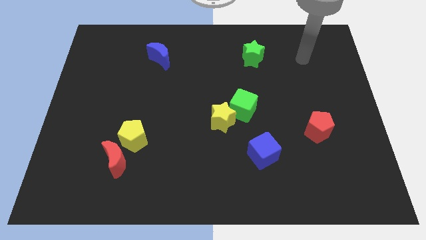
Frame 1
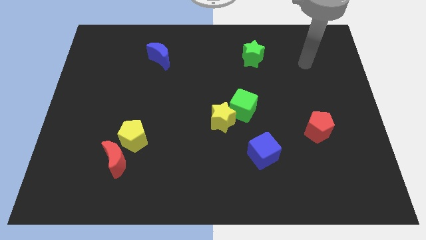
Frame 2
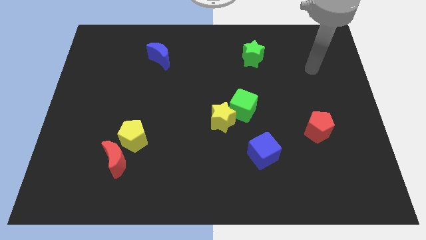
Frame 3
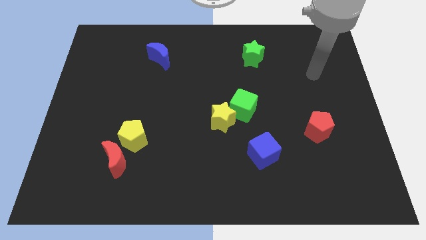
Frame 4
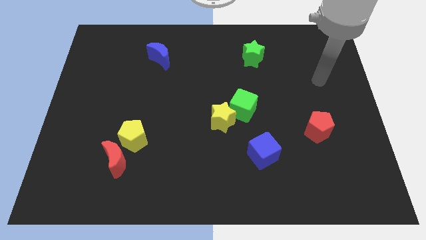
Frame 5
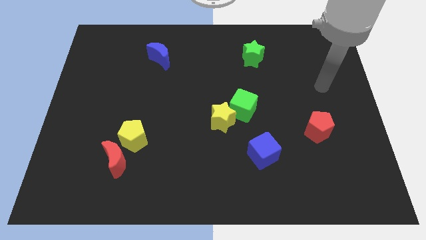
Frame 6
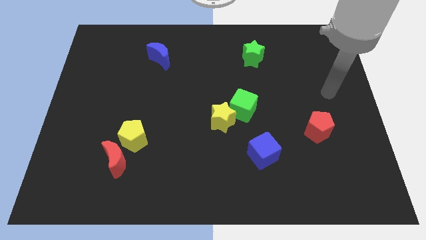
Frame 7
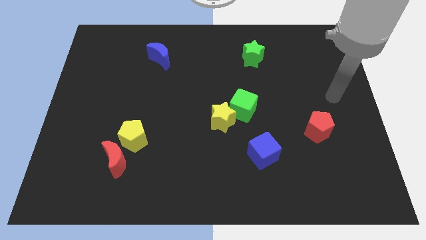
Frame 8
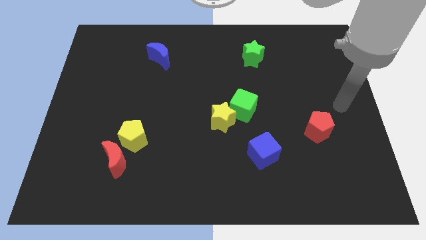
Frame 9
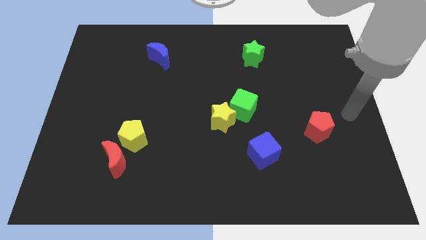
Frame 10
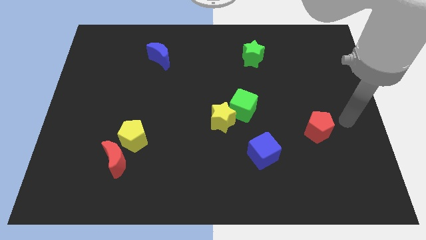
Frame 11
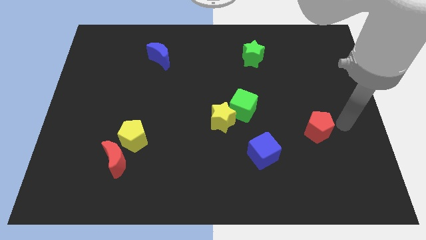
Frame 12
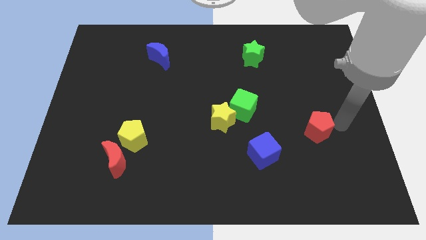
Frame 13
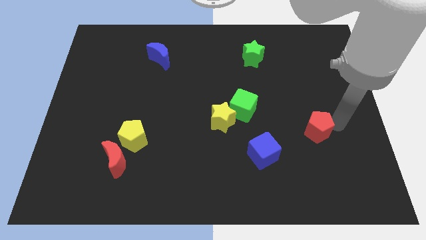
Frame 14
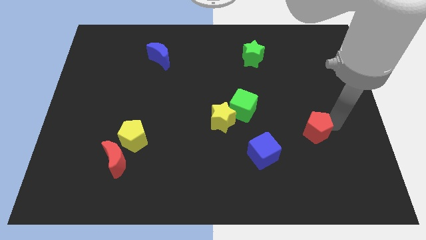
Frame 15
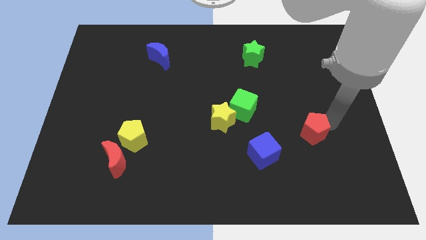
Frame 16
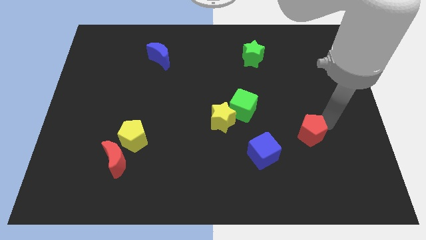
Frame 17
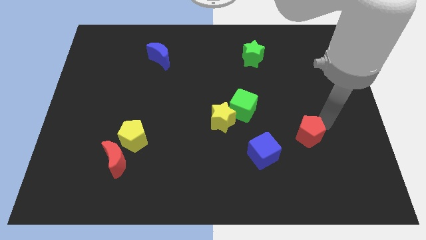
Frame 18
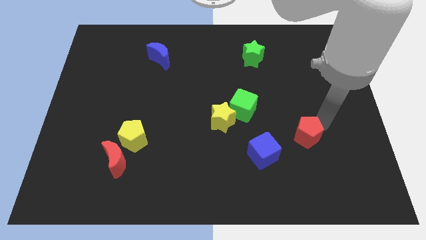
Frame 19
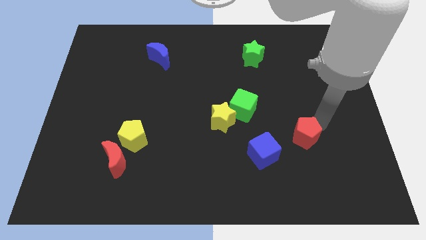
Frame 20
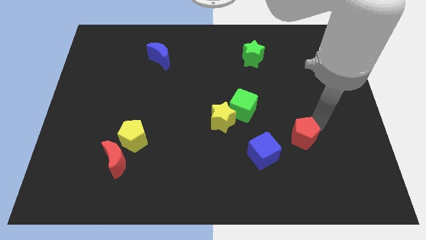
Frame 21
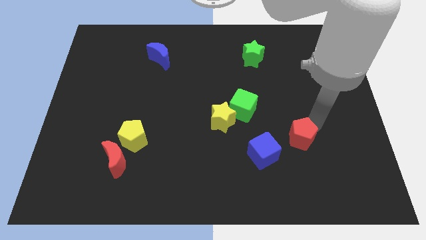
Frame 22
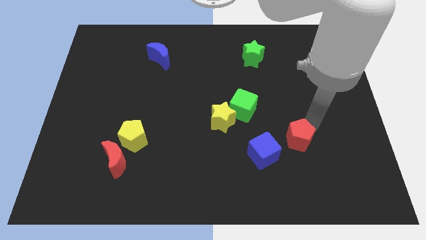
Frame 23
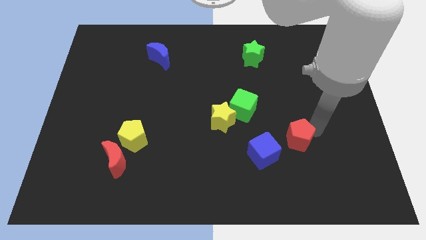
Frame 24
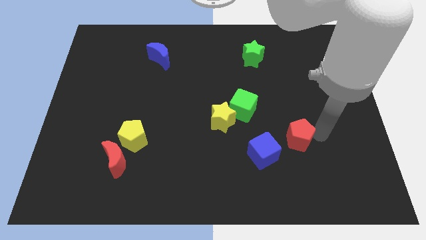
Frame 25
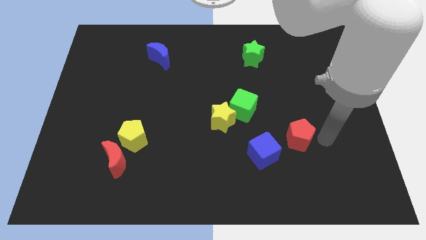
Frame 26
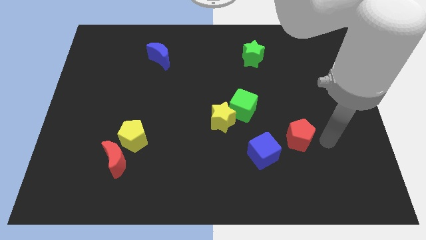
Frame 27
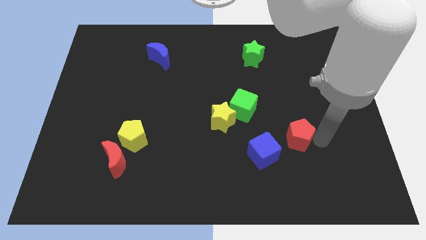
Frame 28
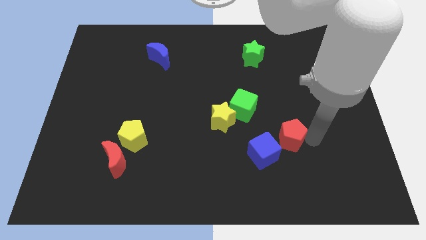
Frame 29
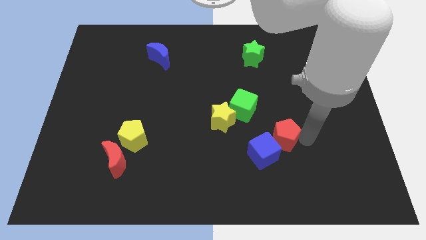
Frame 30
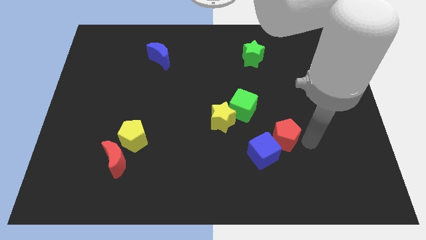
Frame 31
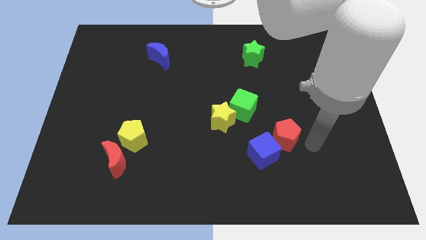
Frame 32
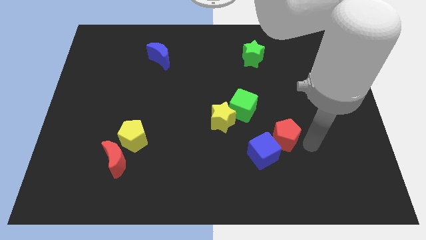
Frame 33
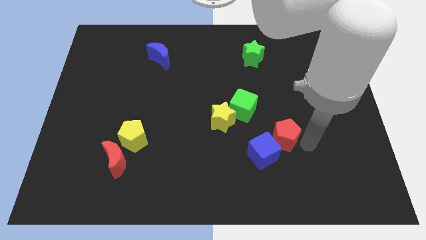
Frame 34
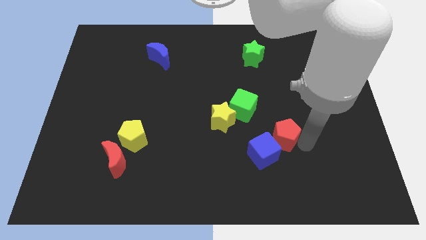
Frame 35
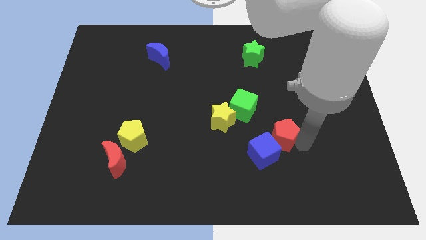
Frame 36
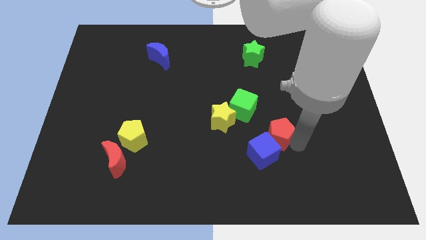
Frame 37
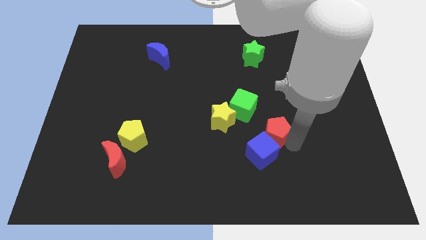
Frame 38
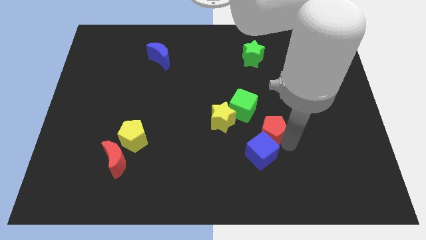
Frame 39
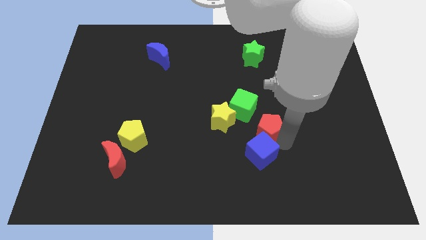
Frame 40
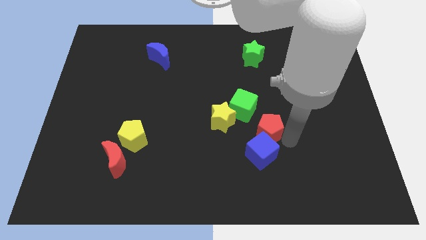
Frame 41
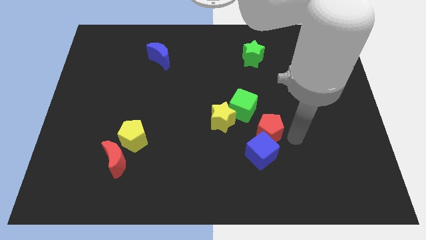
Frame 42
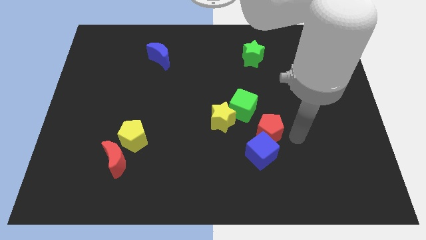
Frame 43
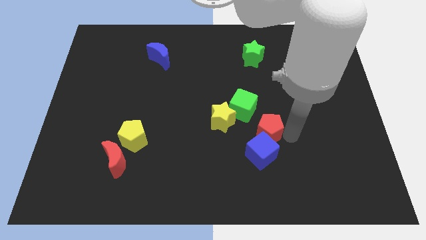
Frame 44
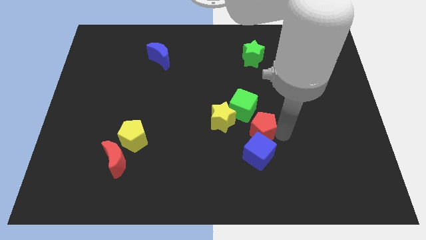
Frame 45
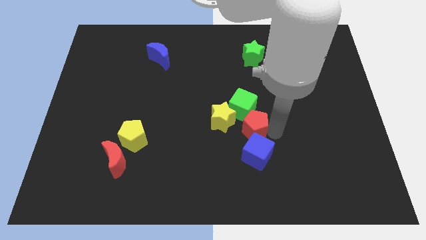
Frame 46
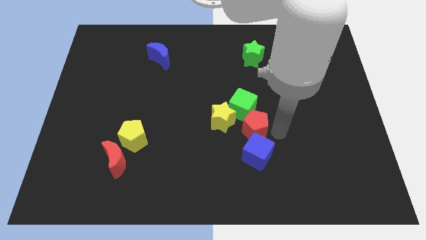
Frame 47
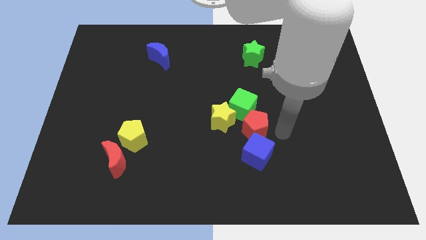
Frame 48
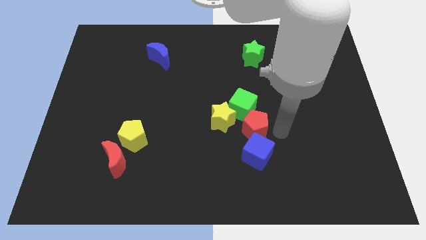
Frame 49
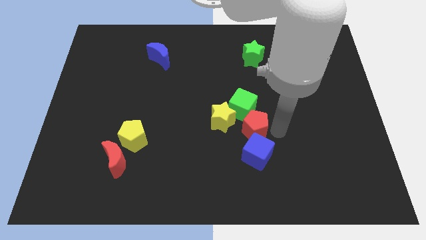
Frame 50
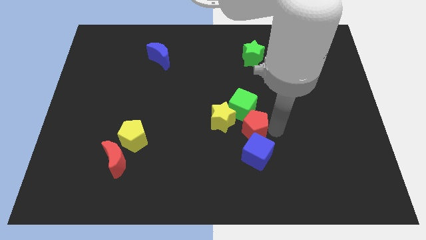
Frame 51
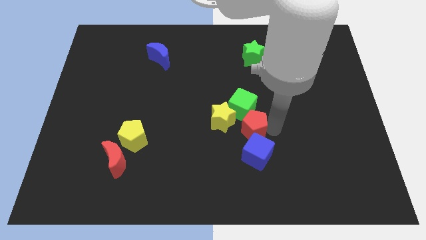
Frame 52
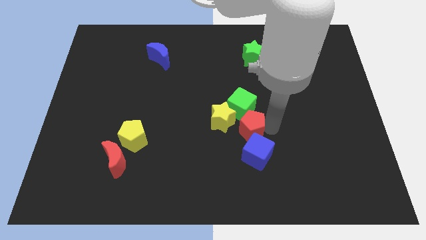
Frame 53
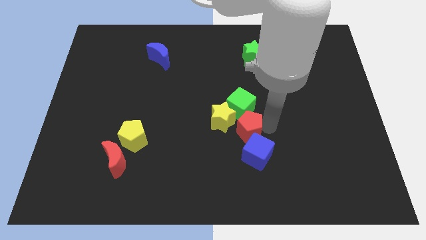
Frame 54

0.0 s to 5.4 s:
push the red pentagon towards the yellow star

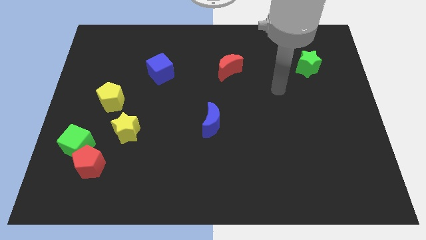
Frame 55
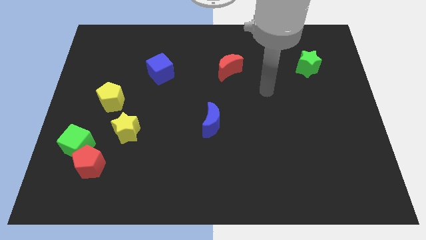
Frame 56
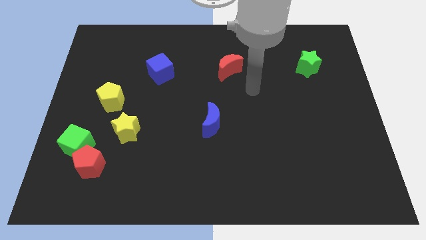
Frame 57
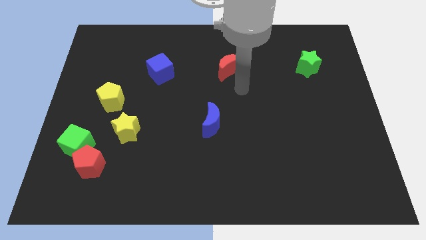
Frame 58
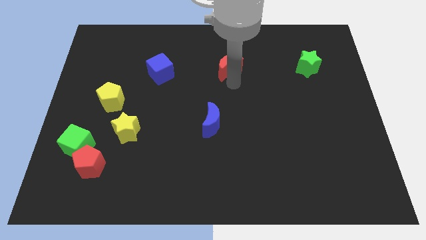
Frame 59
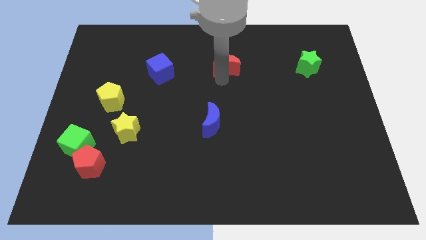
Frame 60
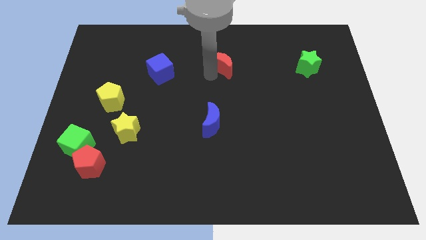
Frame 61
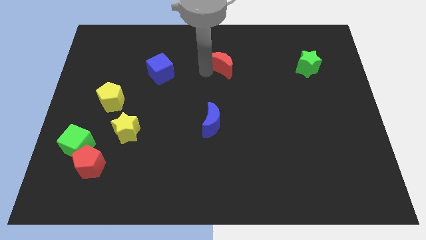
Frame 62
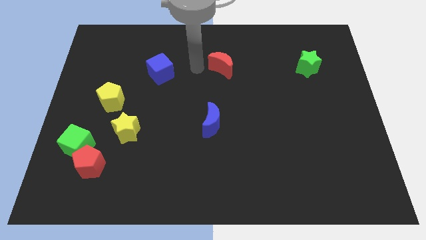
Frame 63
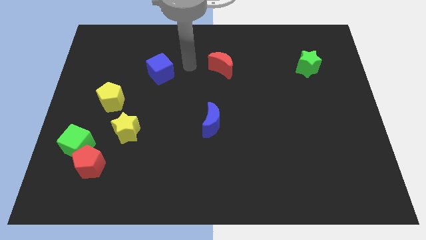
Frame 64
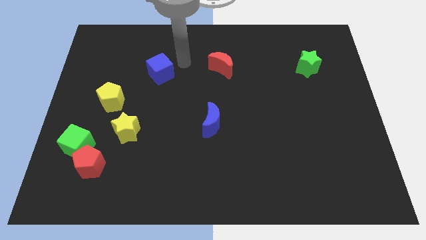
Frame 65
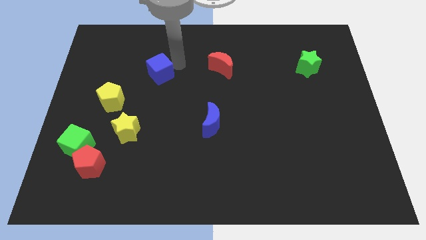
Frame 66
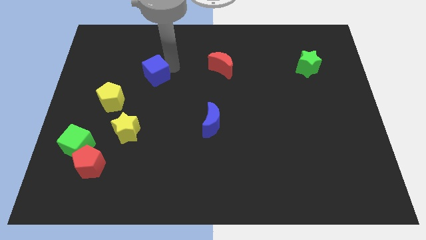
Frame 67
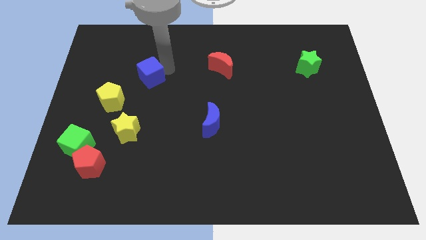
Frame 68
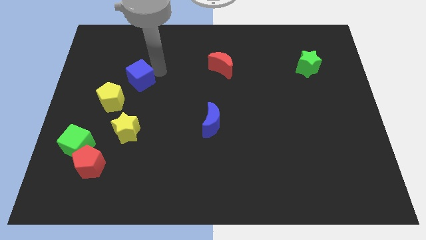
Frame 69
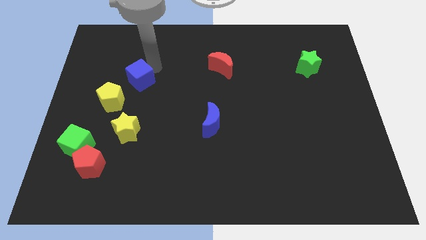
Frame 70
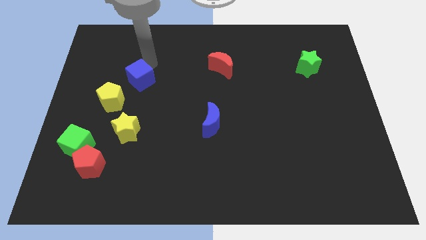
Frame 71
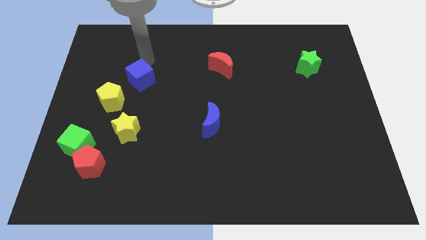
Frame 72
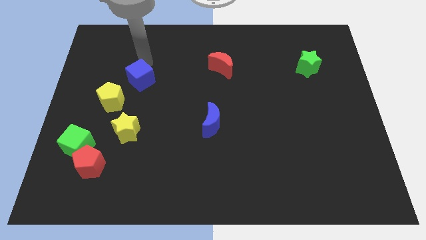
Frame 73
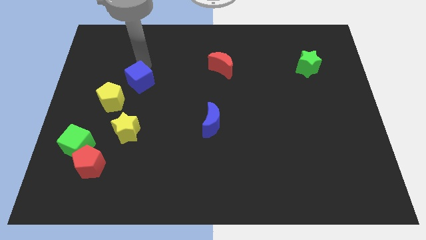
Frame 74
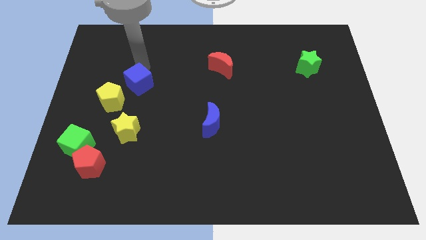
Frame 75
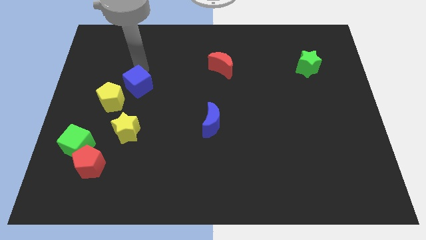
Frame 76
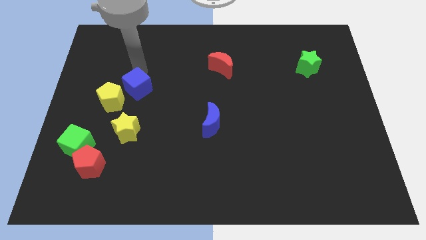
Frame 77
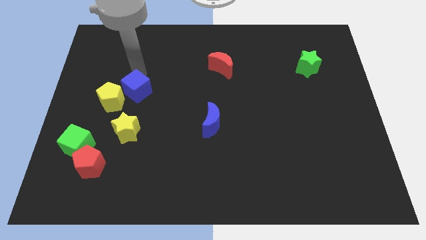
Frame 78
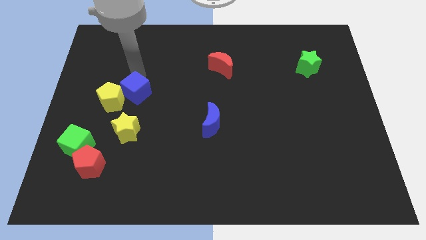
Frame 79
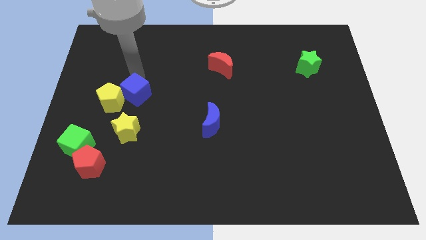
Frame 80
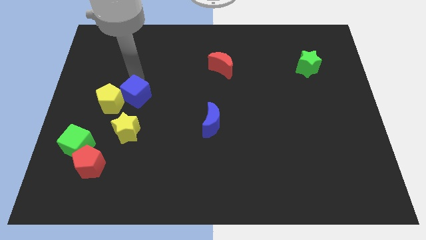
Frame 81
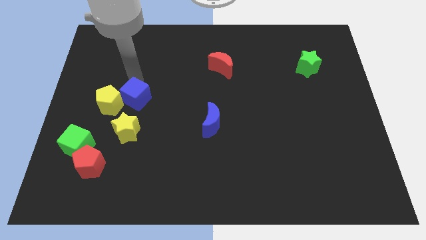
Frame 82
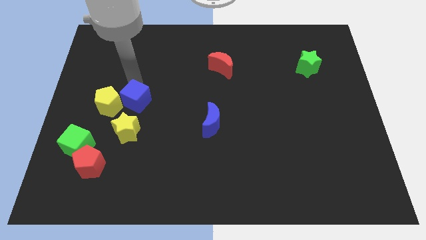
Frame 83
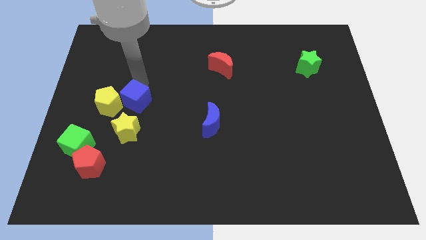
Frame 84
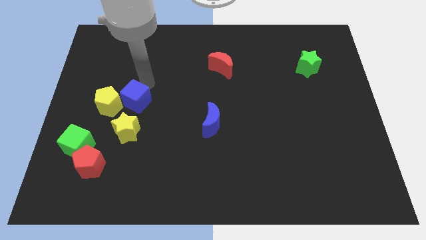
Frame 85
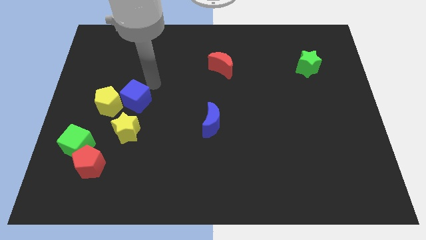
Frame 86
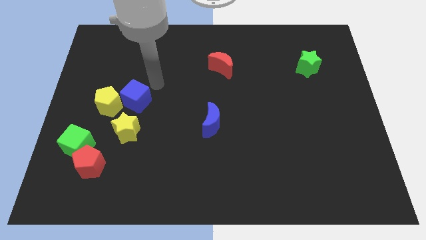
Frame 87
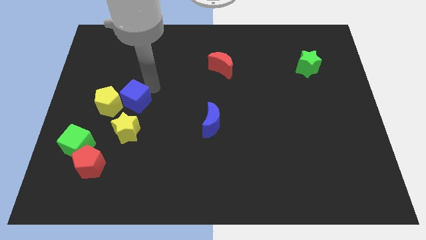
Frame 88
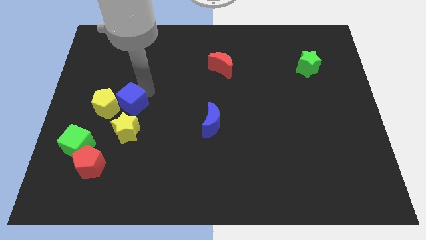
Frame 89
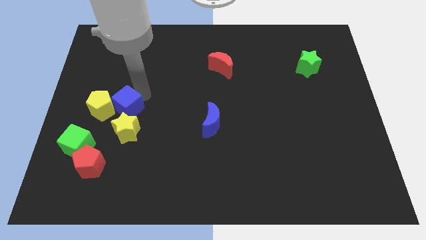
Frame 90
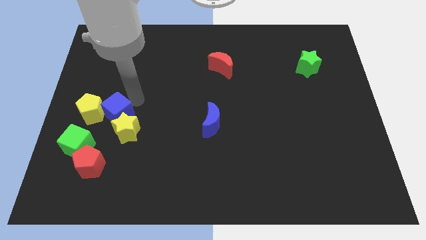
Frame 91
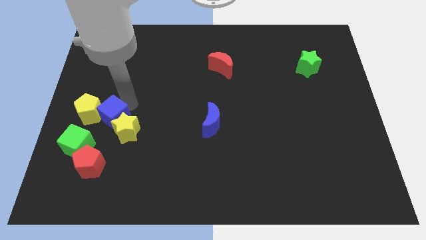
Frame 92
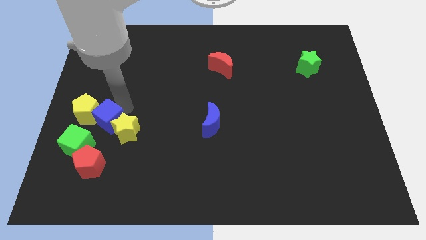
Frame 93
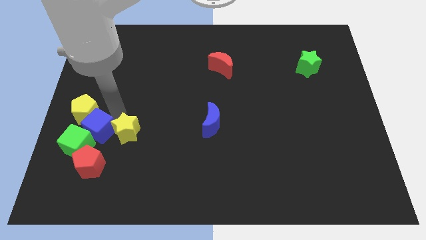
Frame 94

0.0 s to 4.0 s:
put the blue cube close to the green cube
